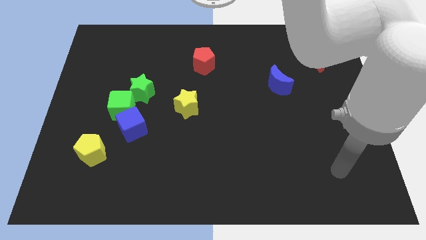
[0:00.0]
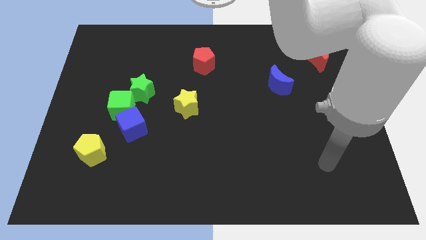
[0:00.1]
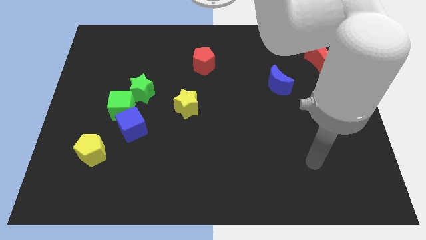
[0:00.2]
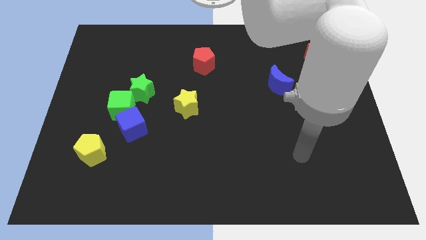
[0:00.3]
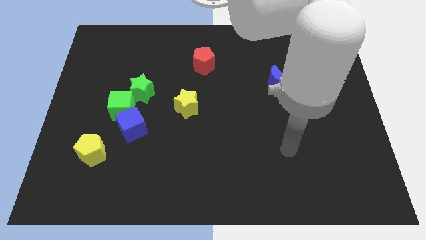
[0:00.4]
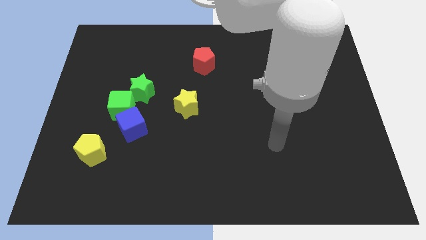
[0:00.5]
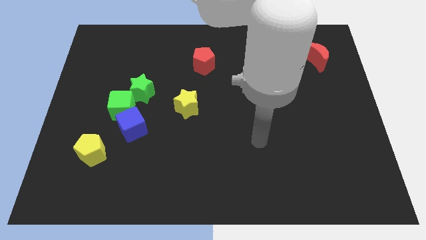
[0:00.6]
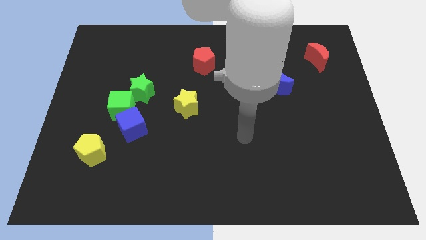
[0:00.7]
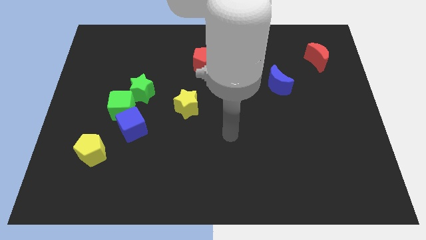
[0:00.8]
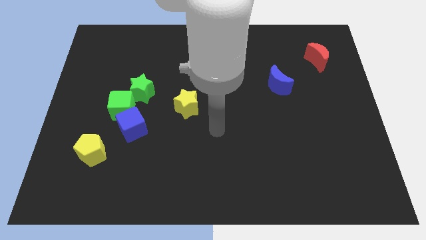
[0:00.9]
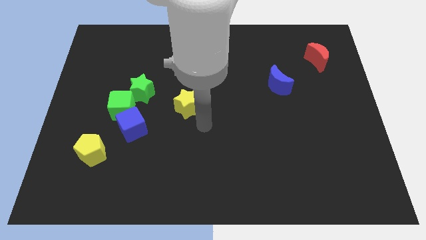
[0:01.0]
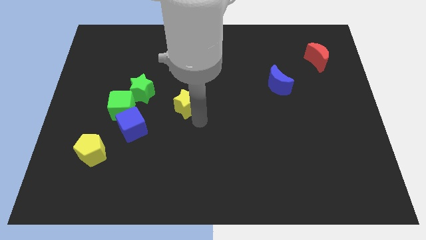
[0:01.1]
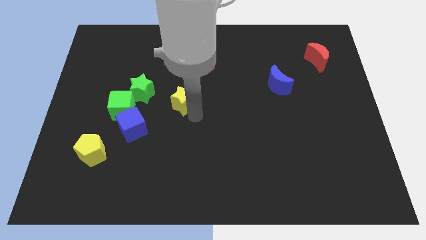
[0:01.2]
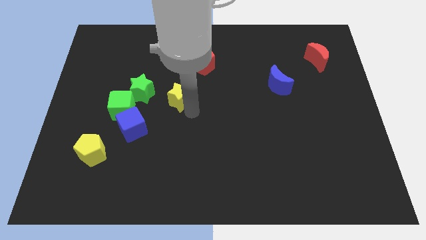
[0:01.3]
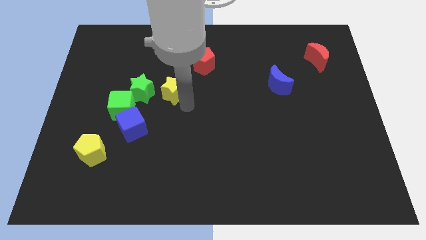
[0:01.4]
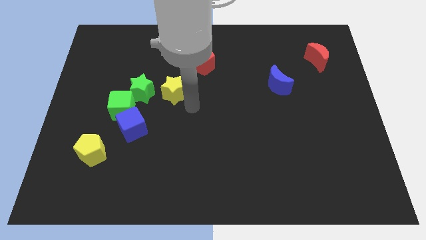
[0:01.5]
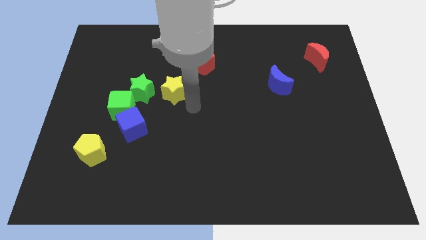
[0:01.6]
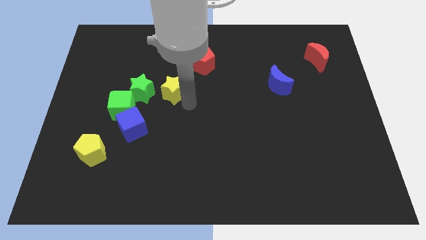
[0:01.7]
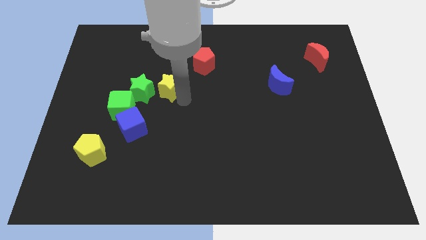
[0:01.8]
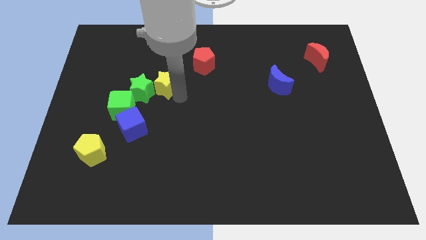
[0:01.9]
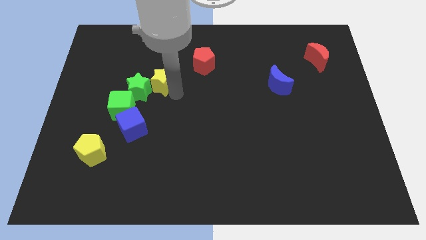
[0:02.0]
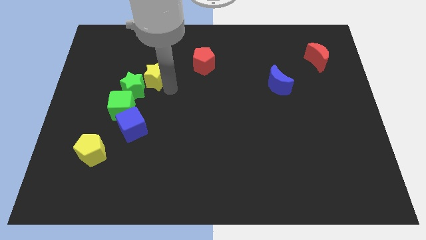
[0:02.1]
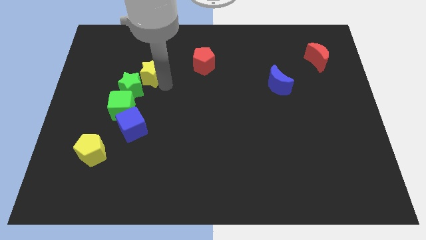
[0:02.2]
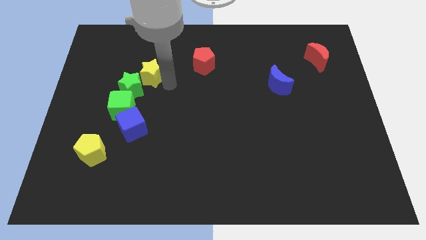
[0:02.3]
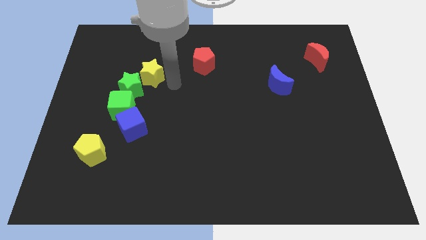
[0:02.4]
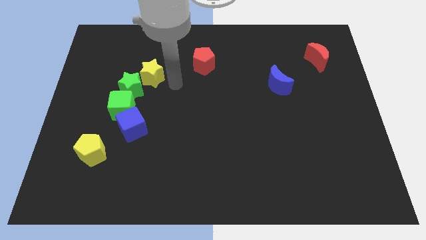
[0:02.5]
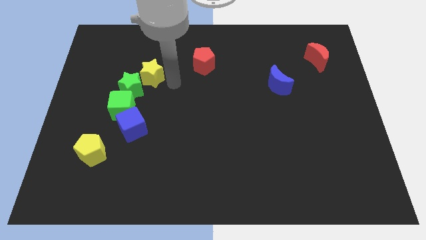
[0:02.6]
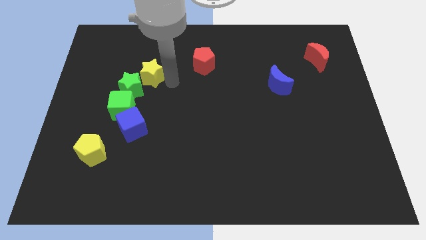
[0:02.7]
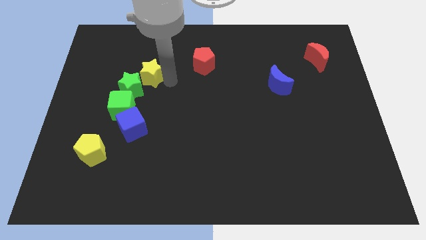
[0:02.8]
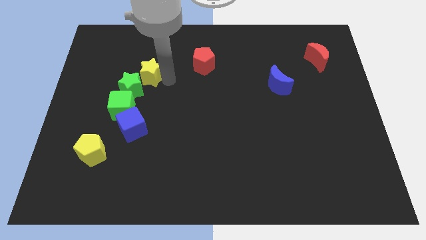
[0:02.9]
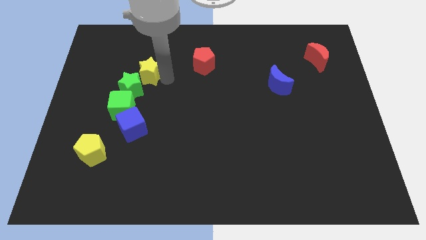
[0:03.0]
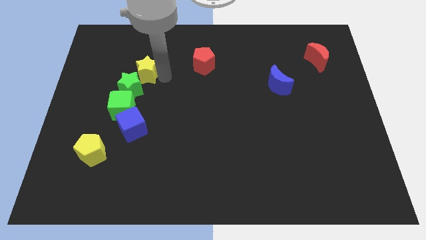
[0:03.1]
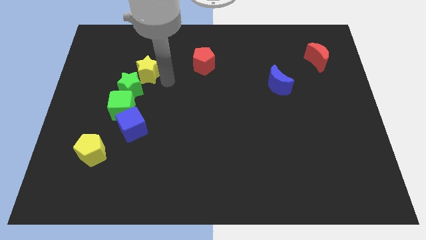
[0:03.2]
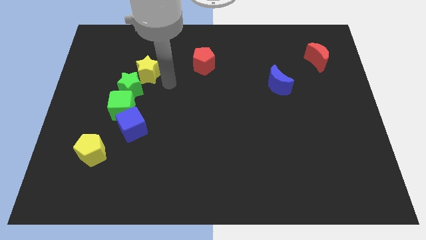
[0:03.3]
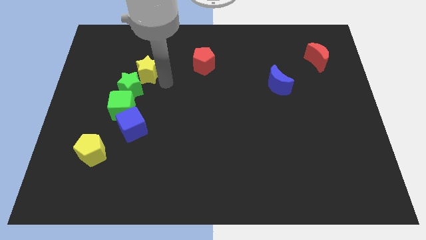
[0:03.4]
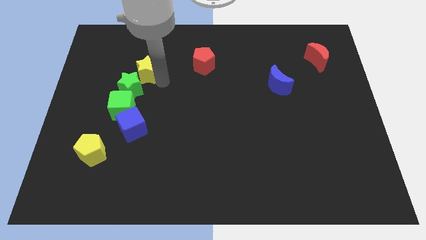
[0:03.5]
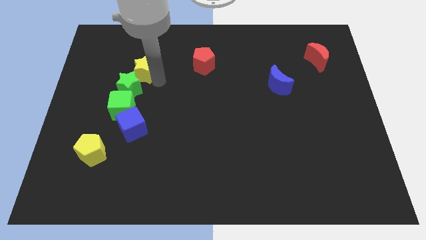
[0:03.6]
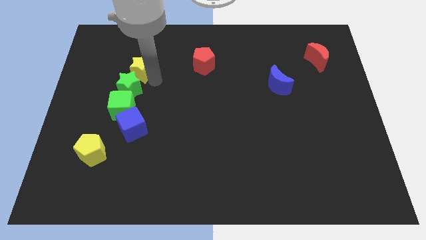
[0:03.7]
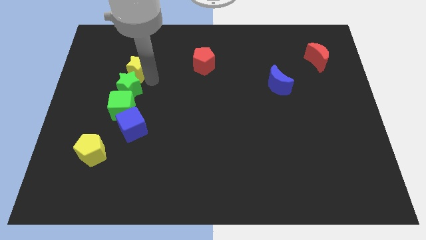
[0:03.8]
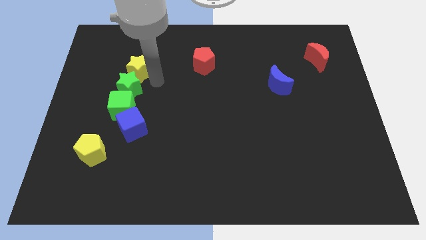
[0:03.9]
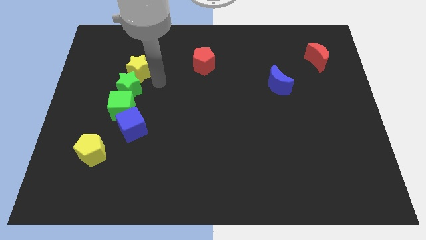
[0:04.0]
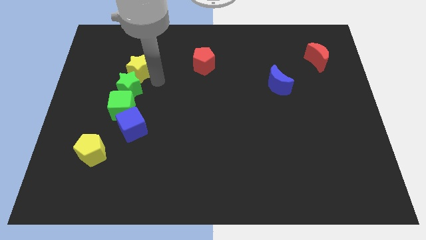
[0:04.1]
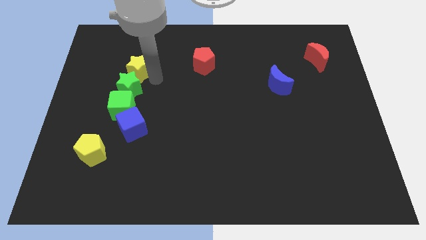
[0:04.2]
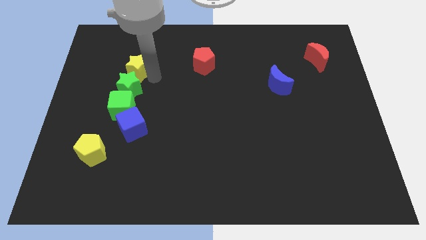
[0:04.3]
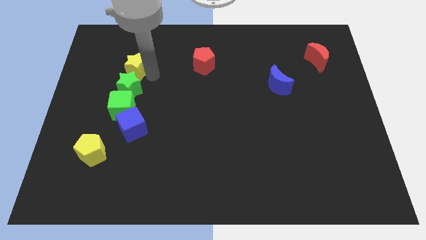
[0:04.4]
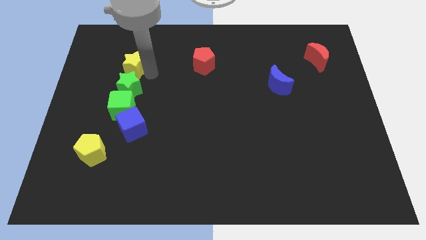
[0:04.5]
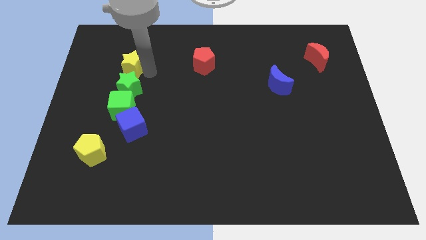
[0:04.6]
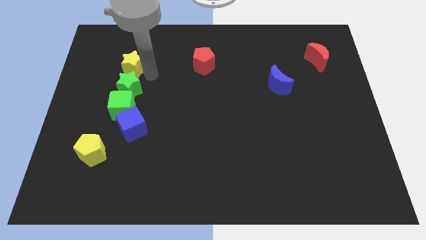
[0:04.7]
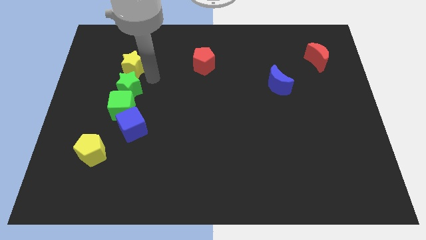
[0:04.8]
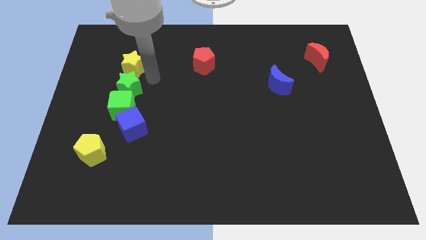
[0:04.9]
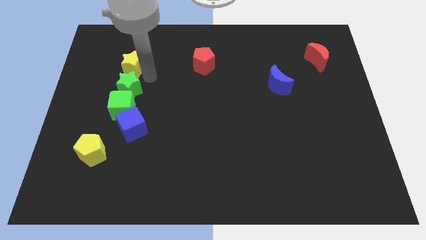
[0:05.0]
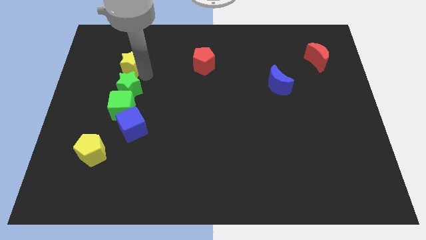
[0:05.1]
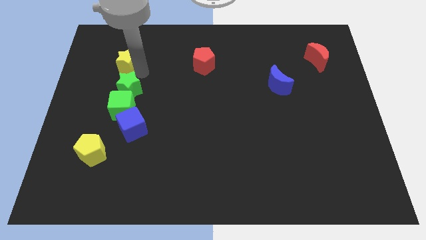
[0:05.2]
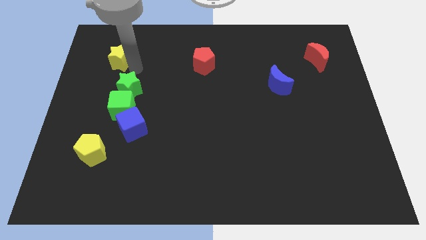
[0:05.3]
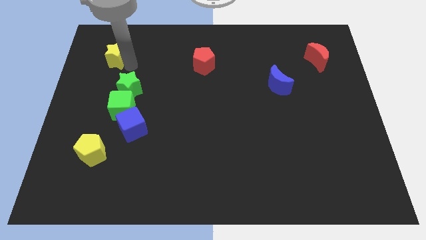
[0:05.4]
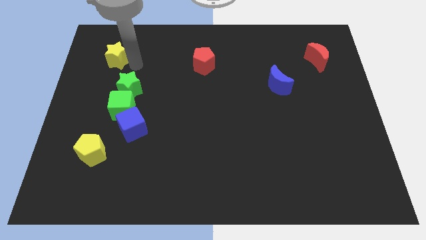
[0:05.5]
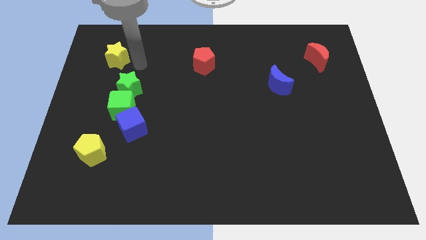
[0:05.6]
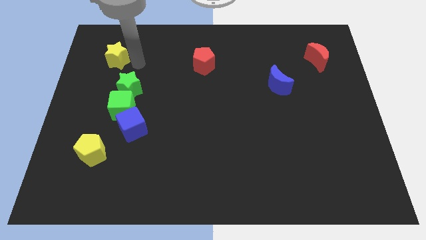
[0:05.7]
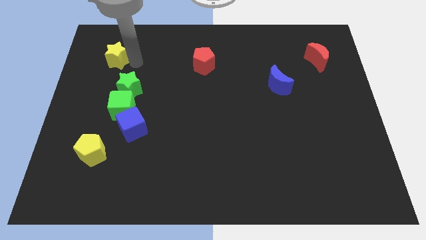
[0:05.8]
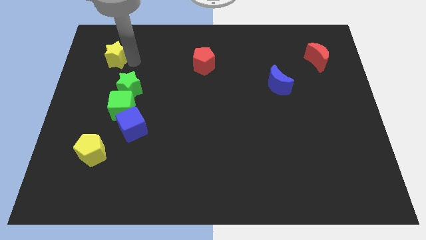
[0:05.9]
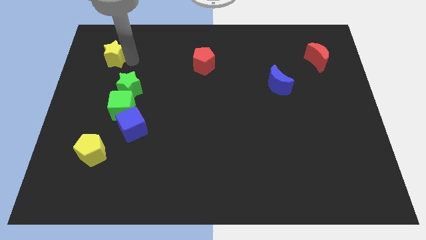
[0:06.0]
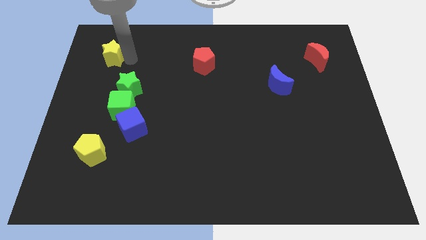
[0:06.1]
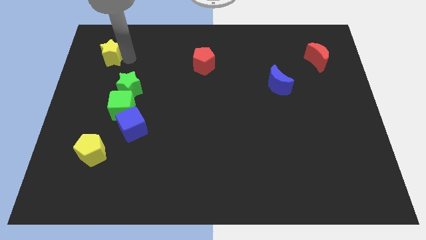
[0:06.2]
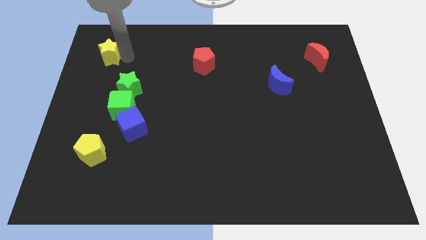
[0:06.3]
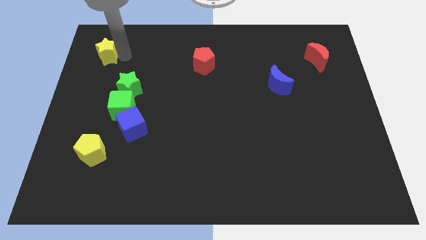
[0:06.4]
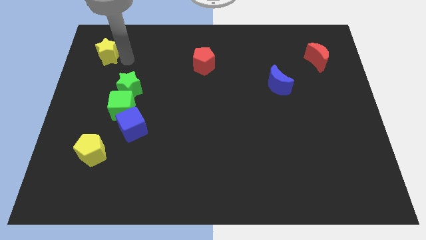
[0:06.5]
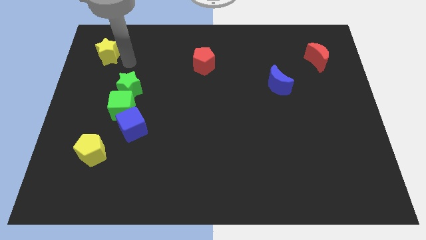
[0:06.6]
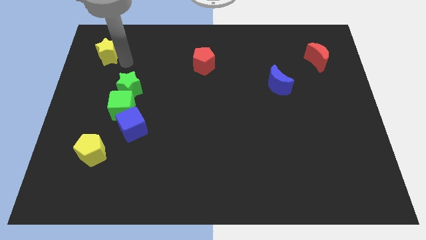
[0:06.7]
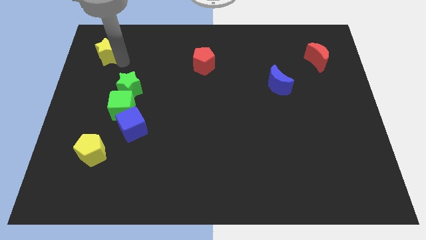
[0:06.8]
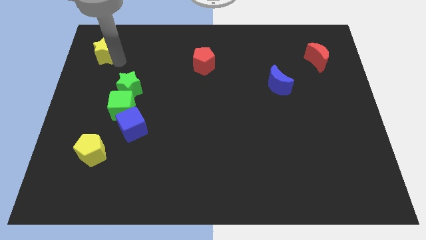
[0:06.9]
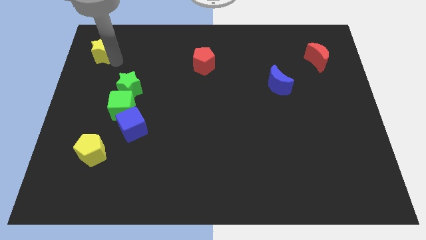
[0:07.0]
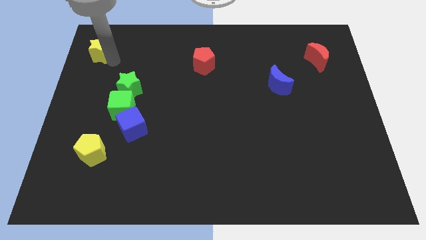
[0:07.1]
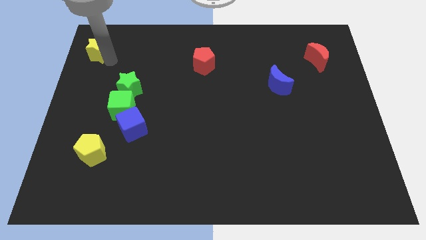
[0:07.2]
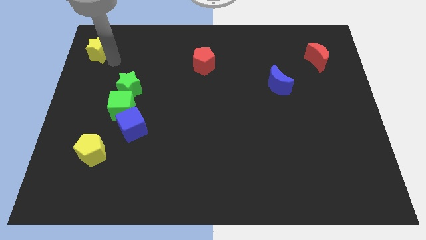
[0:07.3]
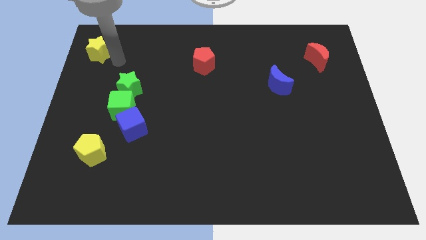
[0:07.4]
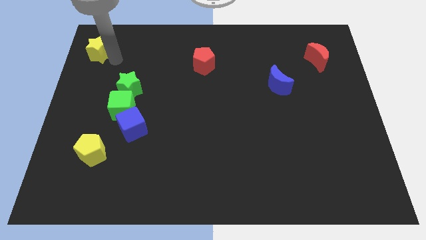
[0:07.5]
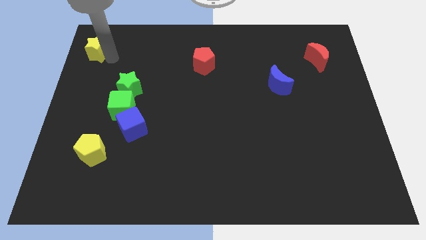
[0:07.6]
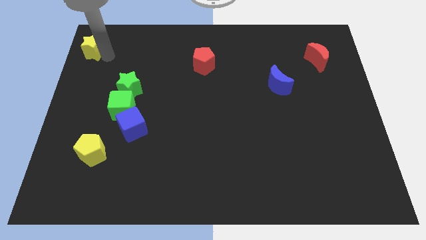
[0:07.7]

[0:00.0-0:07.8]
put the yellow star to the upper left corner
